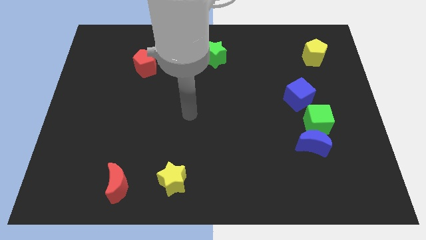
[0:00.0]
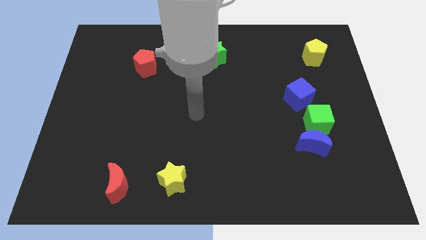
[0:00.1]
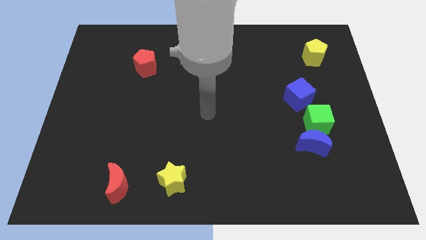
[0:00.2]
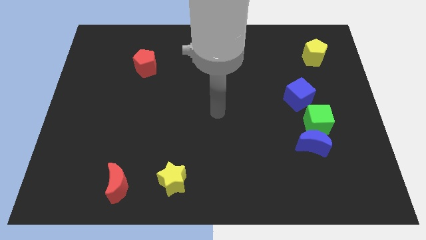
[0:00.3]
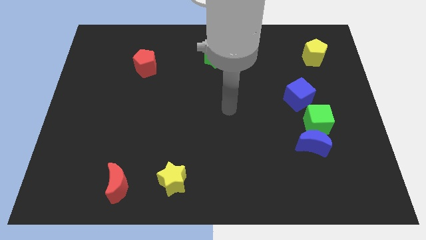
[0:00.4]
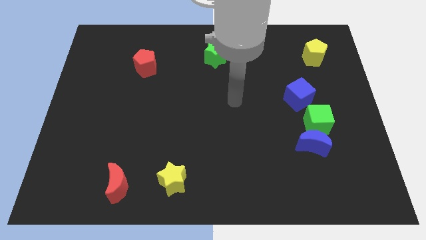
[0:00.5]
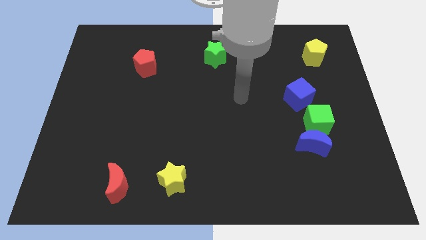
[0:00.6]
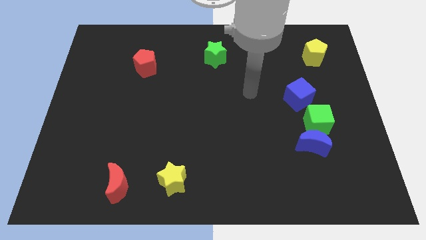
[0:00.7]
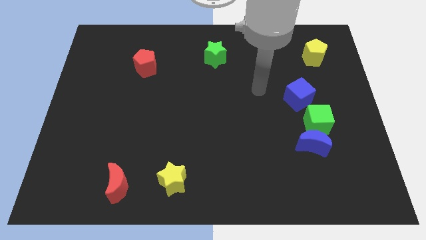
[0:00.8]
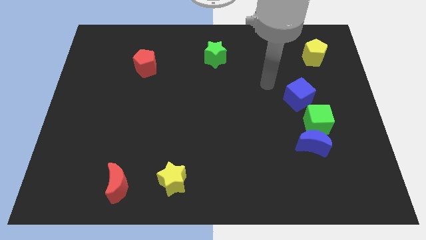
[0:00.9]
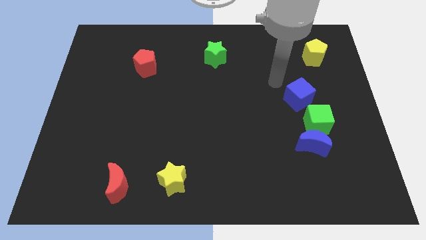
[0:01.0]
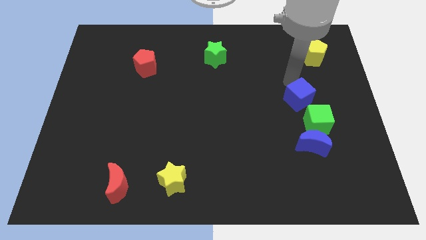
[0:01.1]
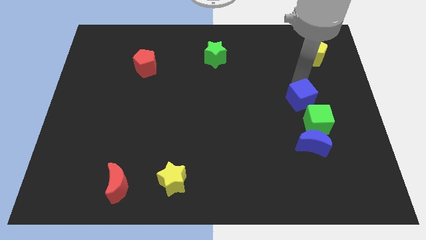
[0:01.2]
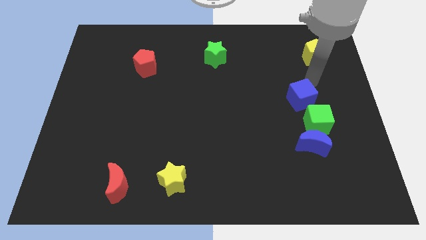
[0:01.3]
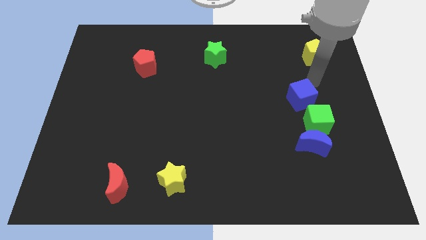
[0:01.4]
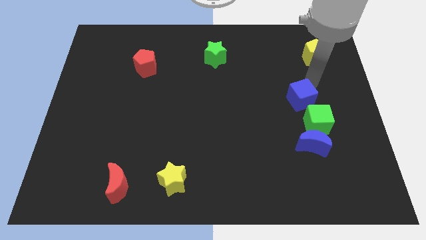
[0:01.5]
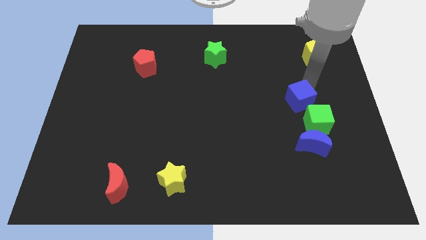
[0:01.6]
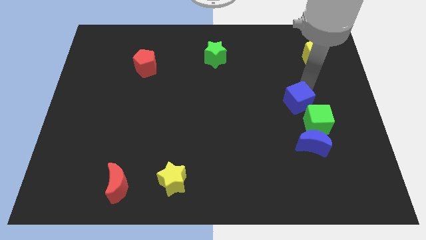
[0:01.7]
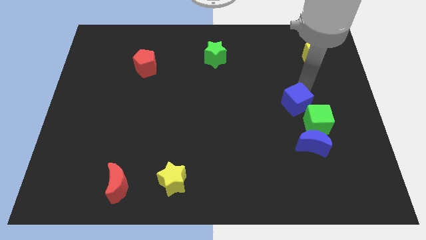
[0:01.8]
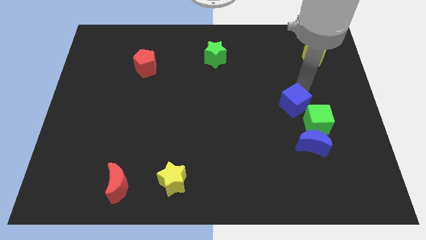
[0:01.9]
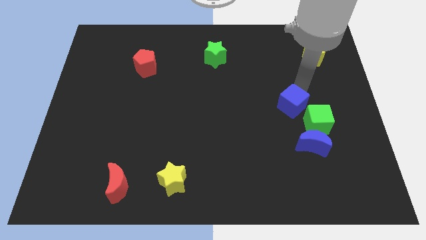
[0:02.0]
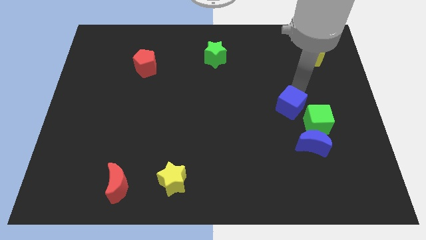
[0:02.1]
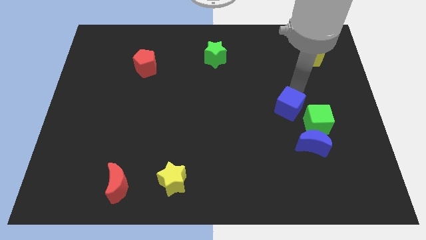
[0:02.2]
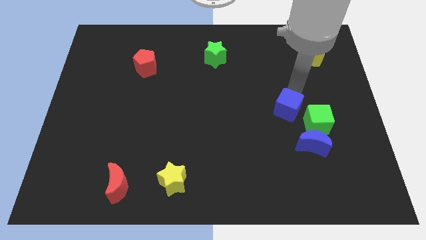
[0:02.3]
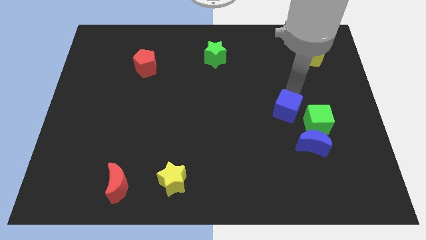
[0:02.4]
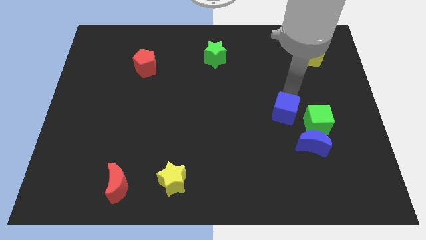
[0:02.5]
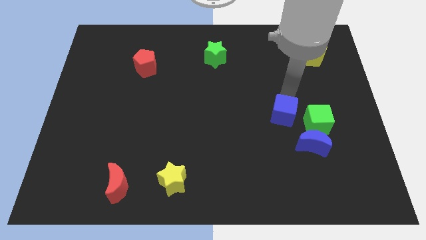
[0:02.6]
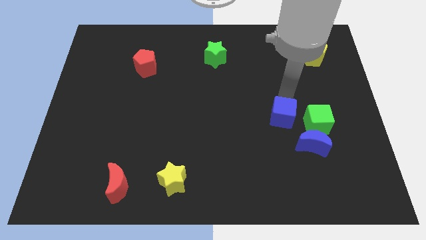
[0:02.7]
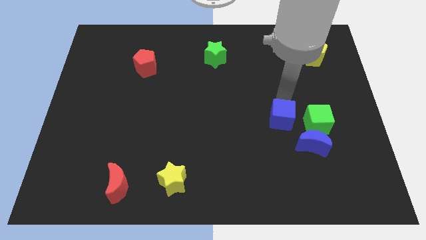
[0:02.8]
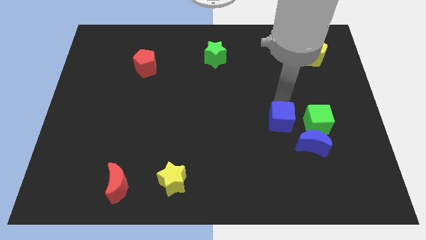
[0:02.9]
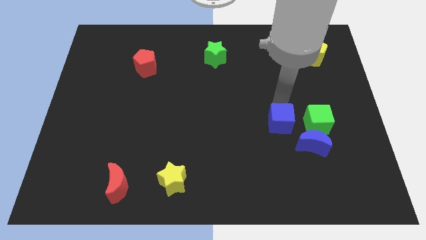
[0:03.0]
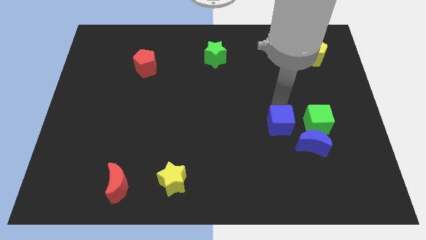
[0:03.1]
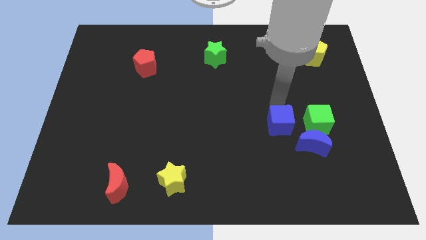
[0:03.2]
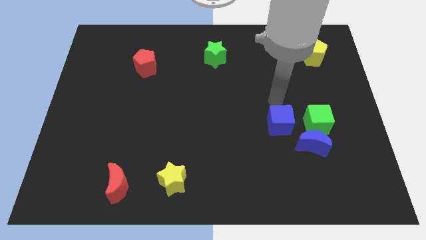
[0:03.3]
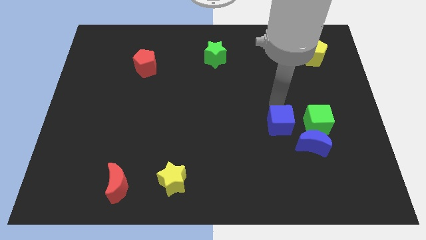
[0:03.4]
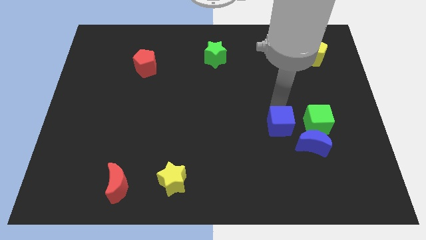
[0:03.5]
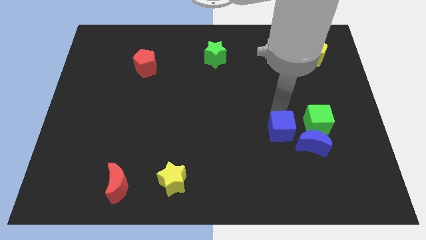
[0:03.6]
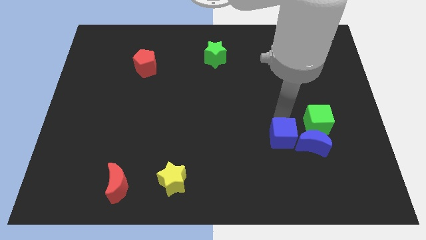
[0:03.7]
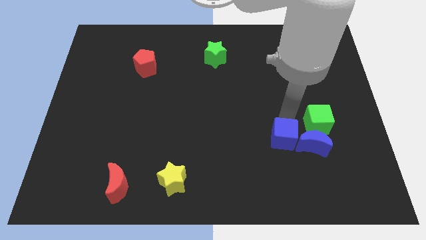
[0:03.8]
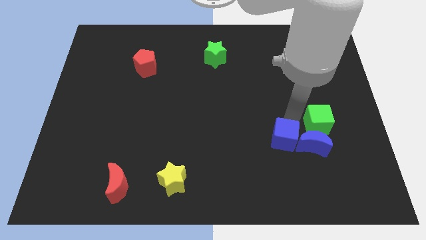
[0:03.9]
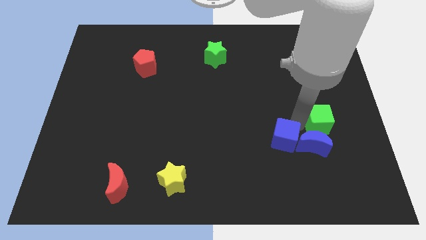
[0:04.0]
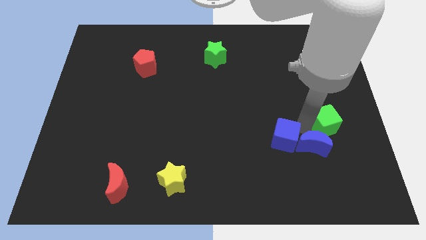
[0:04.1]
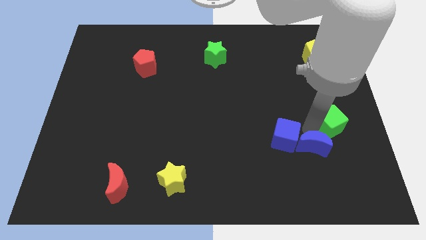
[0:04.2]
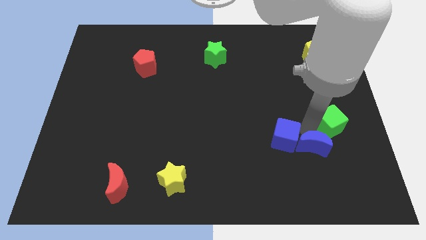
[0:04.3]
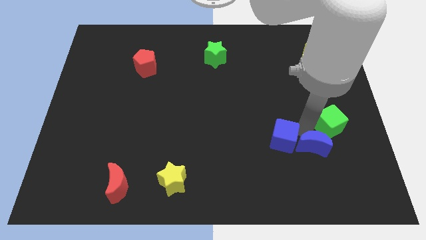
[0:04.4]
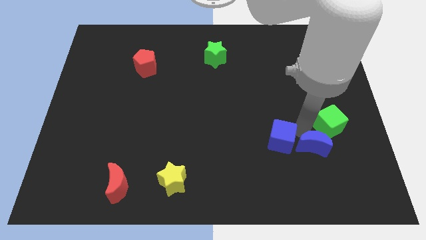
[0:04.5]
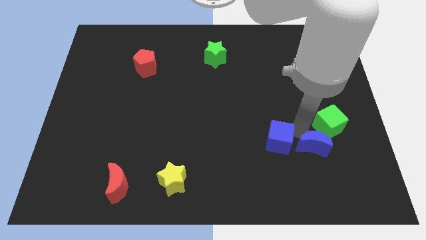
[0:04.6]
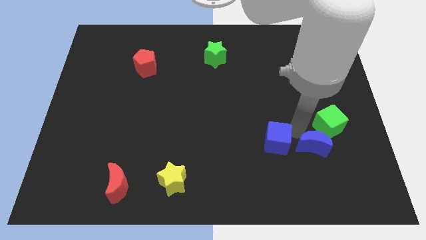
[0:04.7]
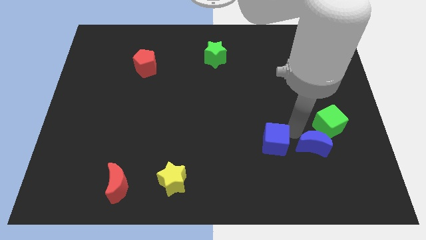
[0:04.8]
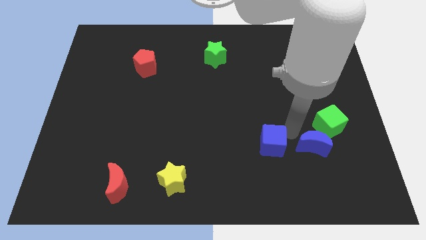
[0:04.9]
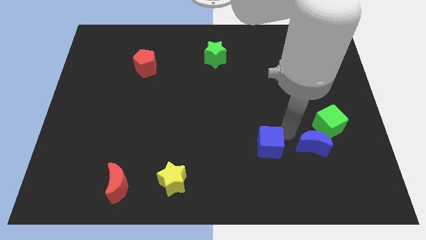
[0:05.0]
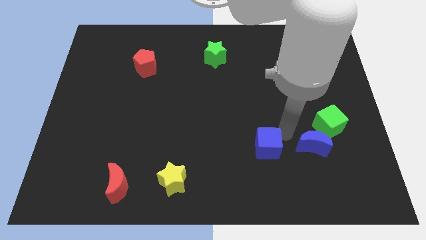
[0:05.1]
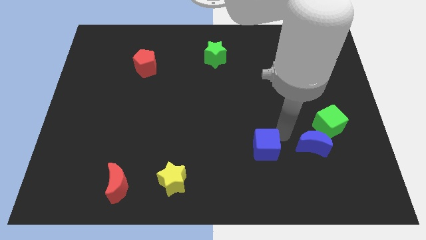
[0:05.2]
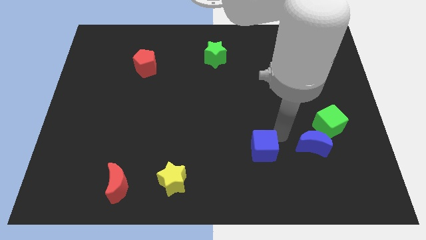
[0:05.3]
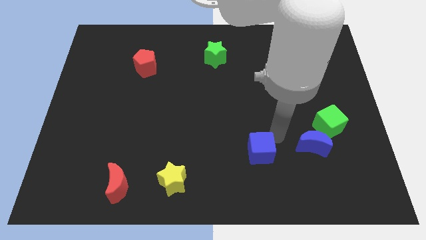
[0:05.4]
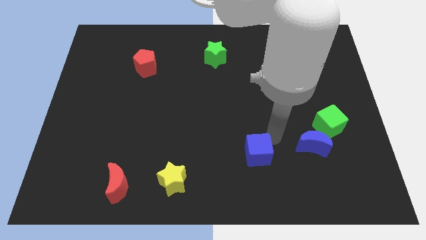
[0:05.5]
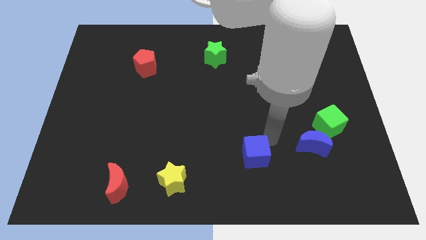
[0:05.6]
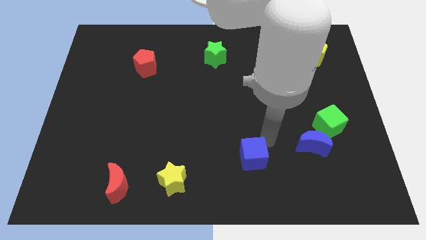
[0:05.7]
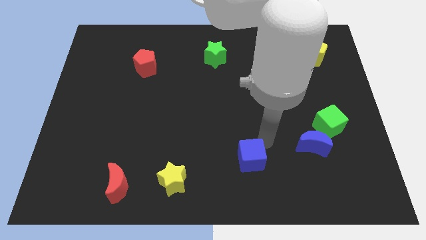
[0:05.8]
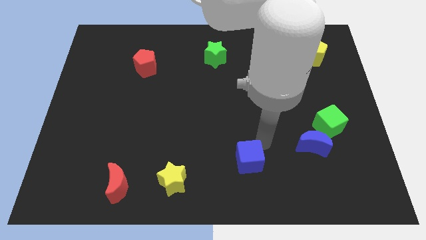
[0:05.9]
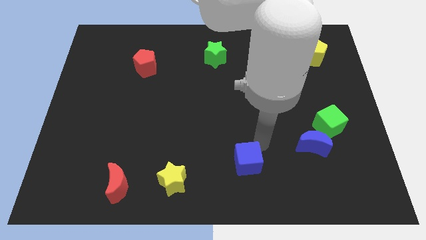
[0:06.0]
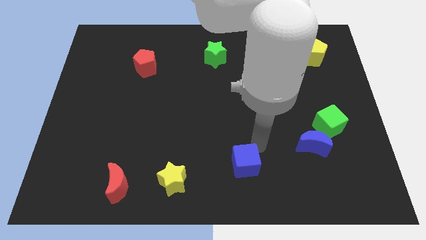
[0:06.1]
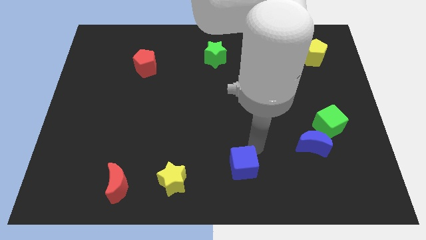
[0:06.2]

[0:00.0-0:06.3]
slide the blue cube right of the yellow star
